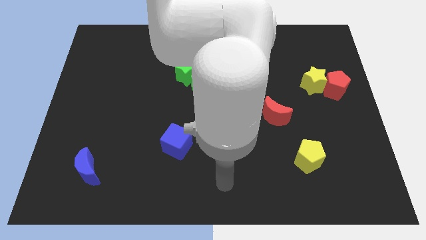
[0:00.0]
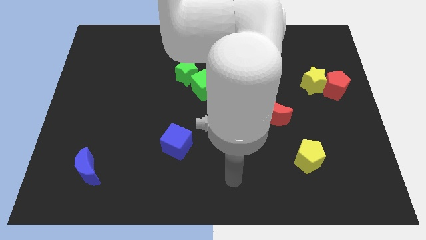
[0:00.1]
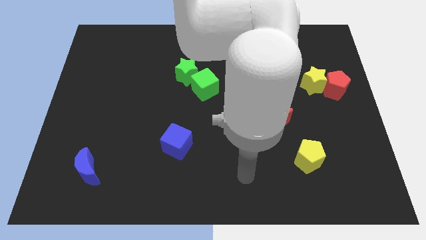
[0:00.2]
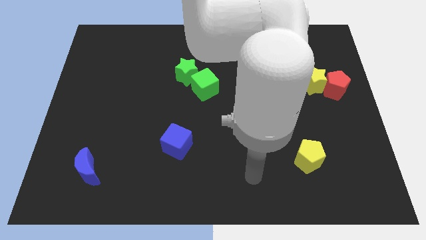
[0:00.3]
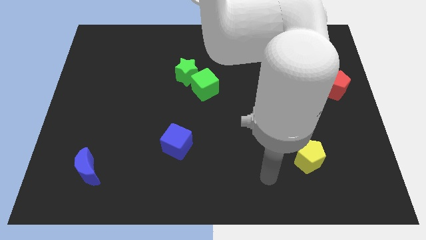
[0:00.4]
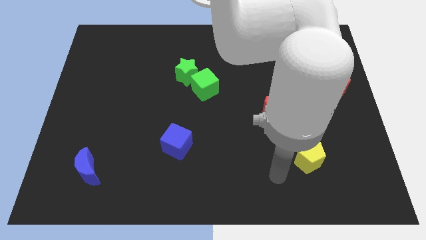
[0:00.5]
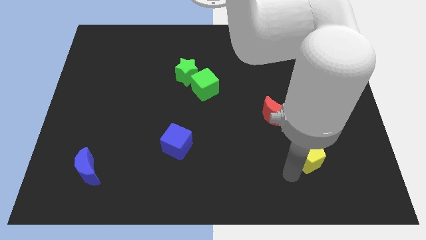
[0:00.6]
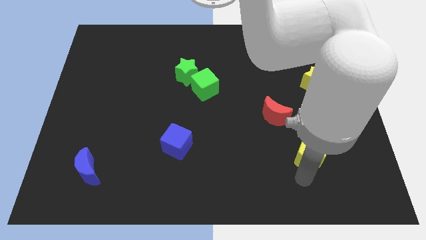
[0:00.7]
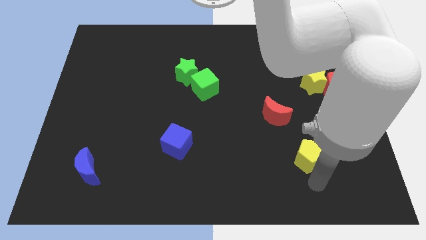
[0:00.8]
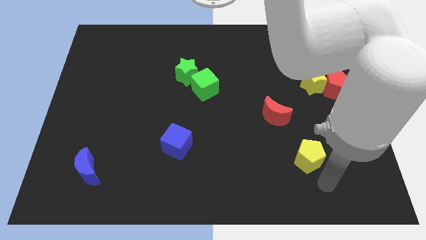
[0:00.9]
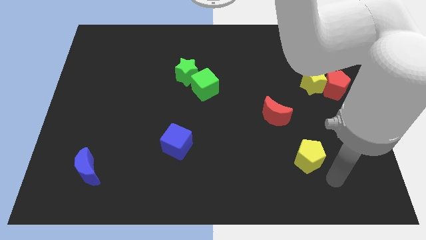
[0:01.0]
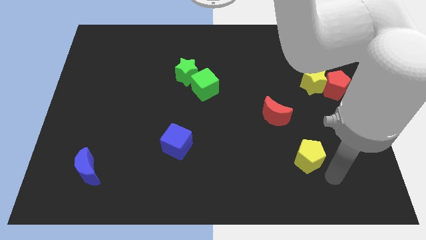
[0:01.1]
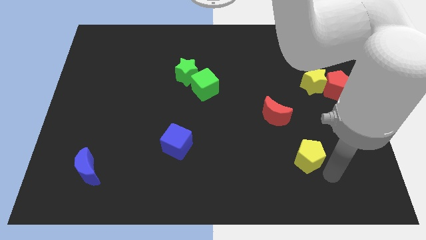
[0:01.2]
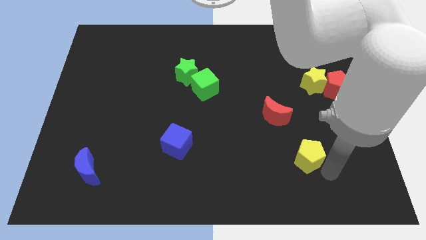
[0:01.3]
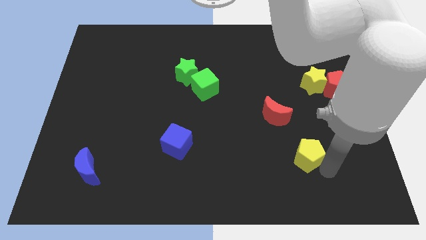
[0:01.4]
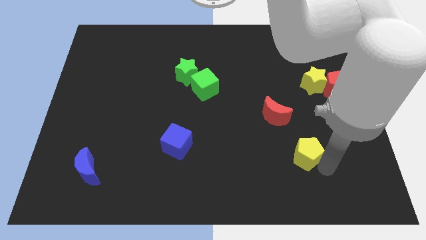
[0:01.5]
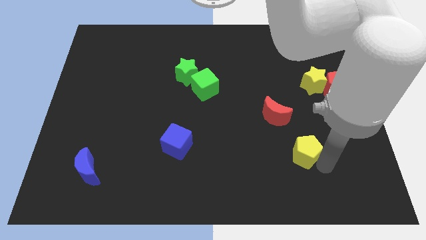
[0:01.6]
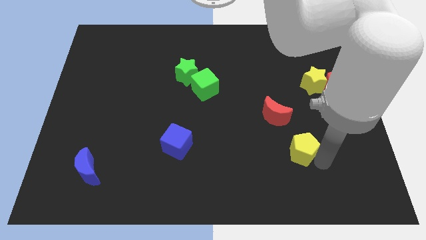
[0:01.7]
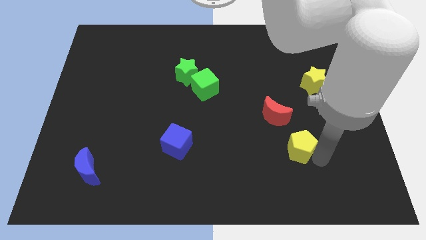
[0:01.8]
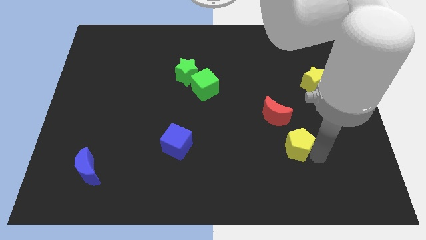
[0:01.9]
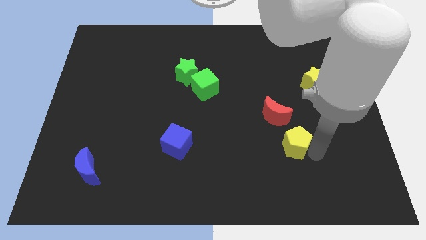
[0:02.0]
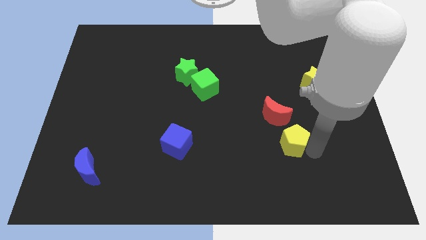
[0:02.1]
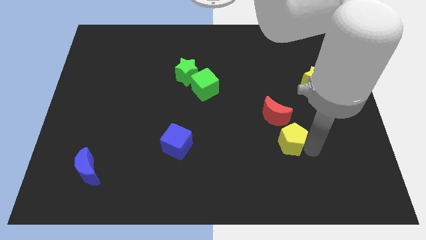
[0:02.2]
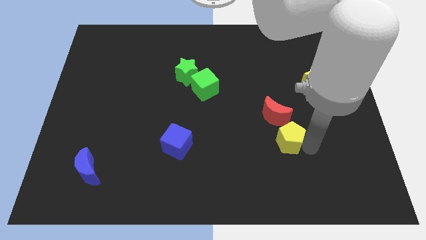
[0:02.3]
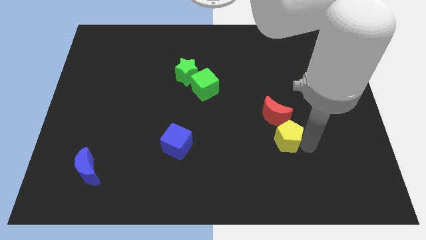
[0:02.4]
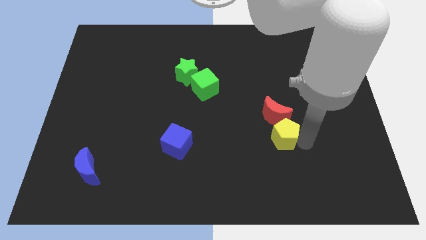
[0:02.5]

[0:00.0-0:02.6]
move the yellow pentagon upwards and to the left diagonally slightly

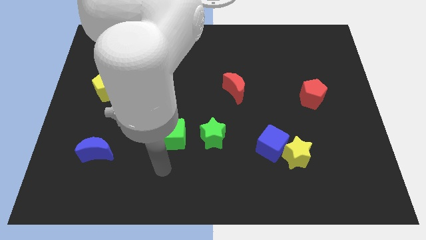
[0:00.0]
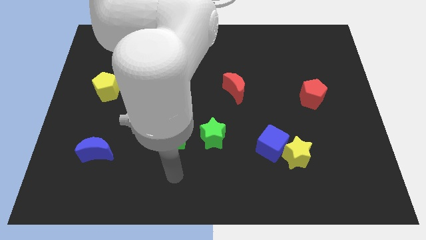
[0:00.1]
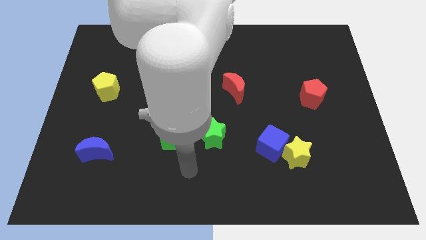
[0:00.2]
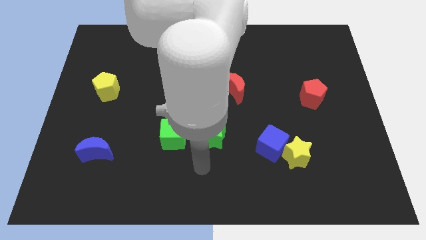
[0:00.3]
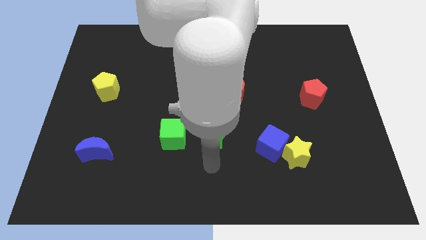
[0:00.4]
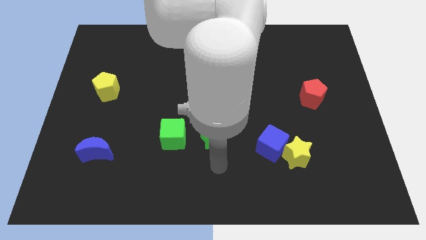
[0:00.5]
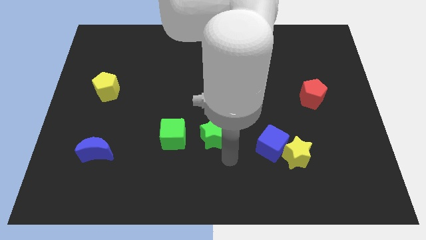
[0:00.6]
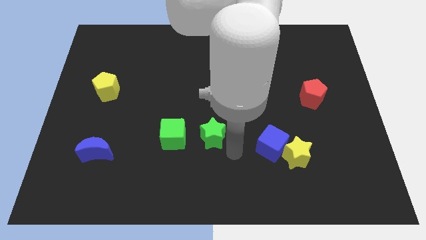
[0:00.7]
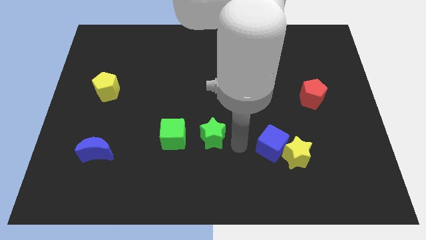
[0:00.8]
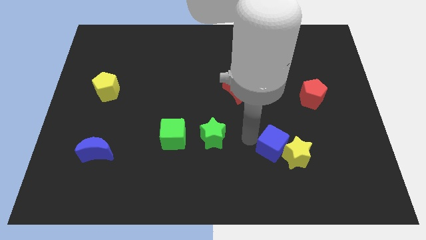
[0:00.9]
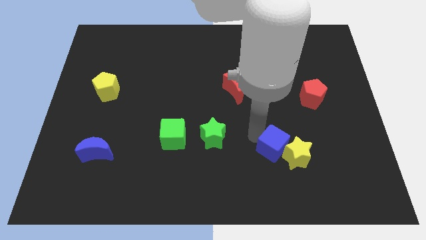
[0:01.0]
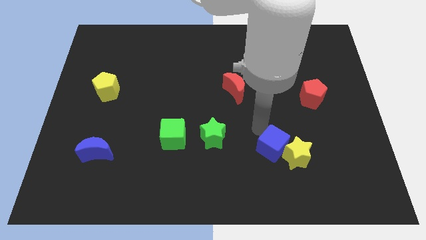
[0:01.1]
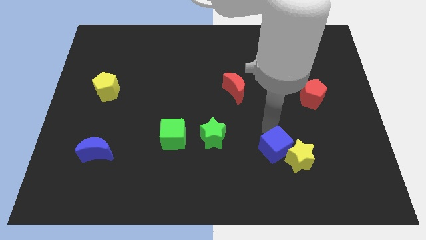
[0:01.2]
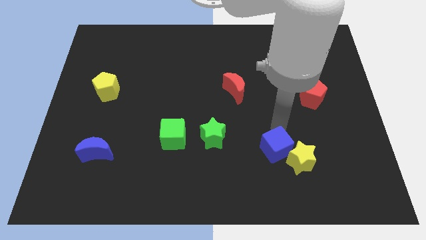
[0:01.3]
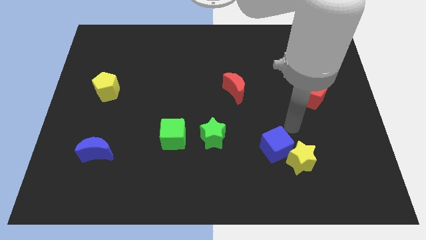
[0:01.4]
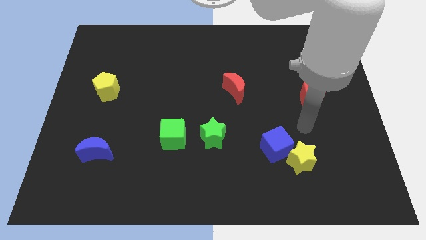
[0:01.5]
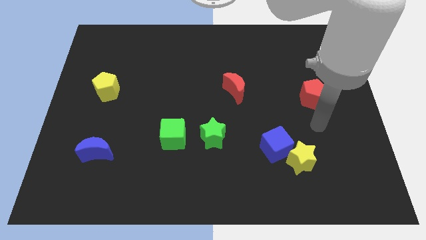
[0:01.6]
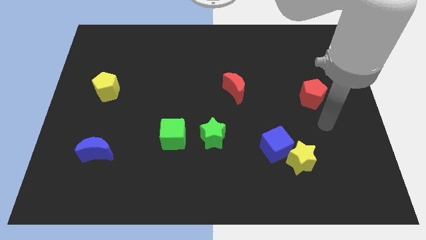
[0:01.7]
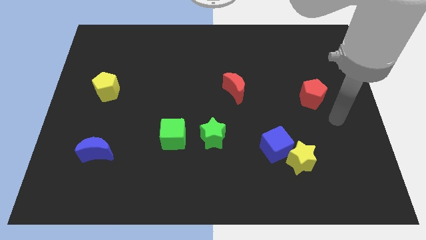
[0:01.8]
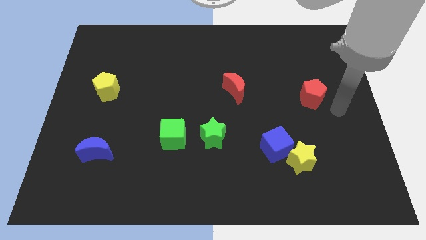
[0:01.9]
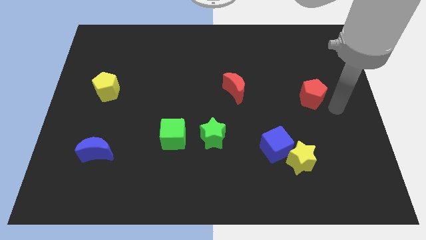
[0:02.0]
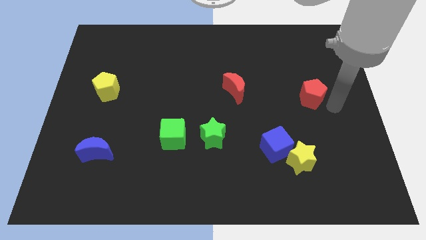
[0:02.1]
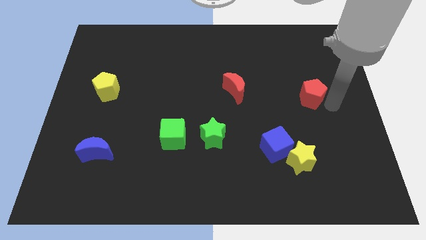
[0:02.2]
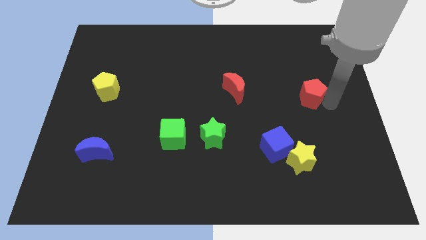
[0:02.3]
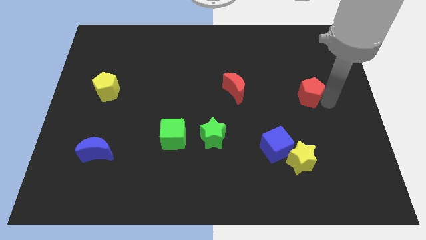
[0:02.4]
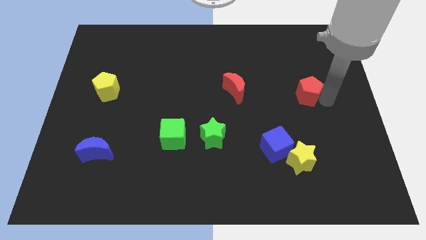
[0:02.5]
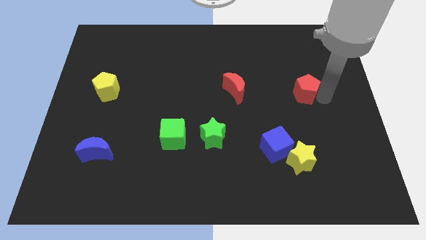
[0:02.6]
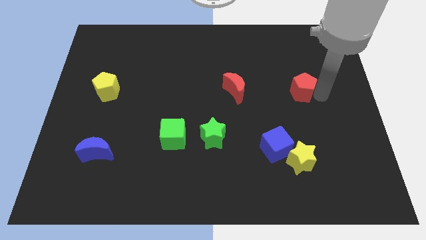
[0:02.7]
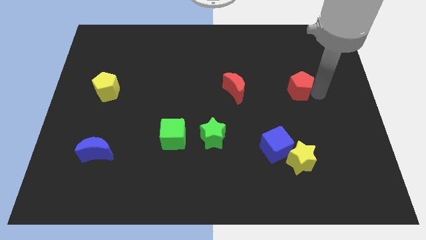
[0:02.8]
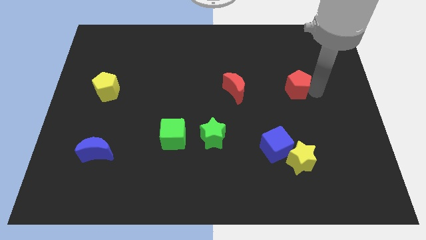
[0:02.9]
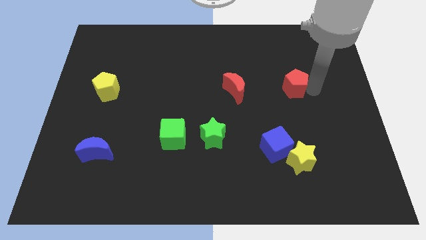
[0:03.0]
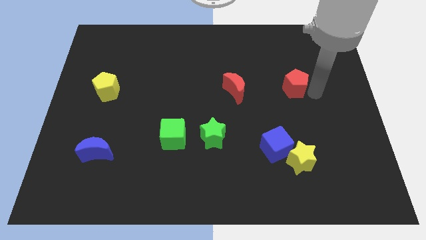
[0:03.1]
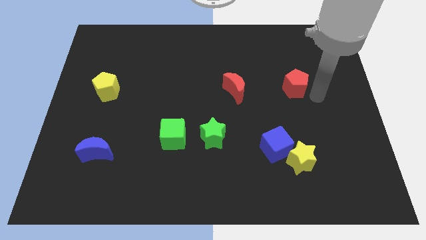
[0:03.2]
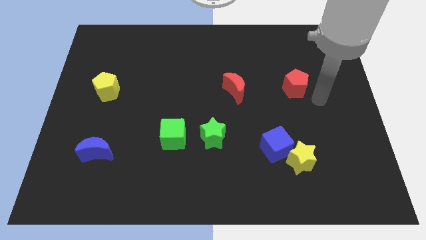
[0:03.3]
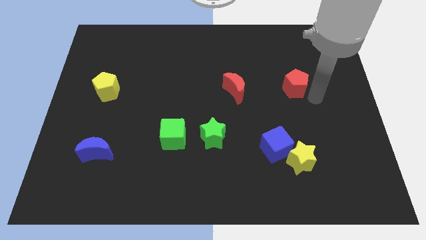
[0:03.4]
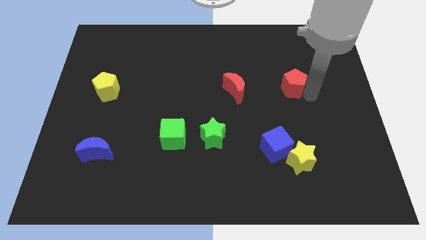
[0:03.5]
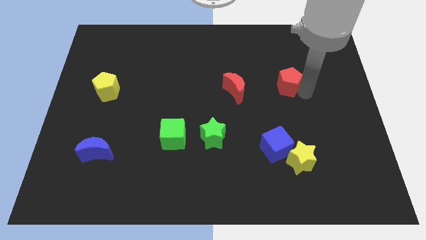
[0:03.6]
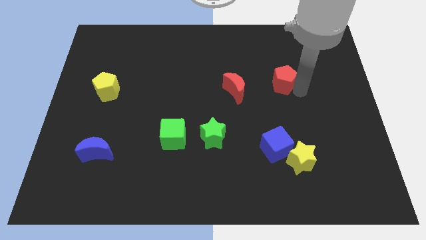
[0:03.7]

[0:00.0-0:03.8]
push the red pentagon a little up and left

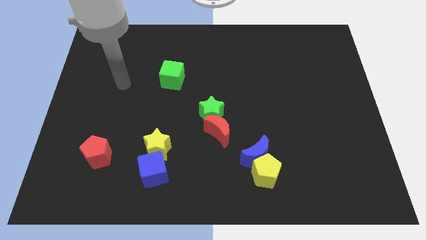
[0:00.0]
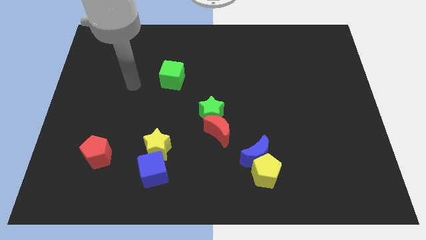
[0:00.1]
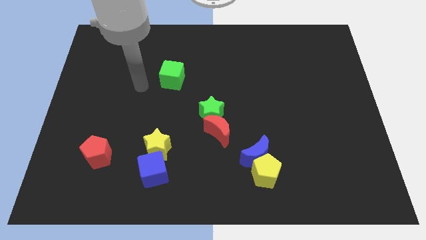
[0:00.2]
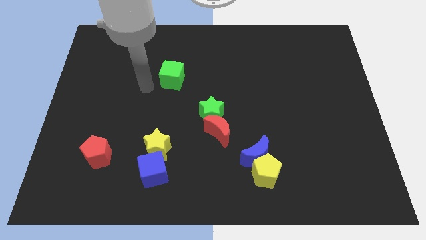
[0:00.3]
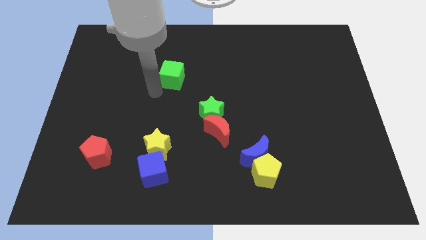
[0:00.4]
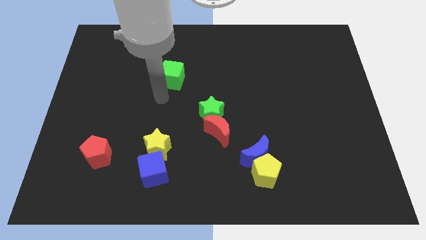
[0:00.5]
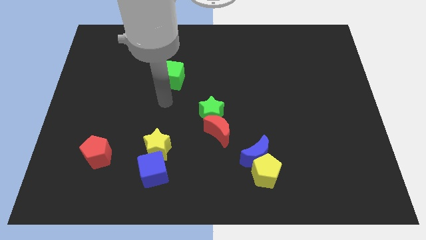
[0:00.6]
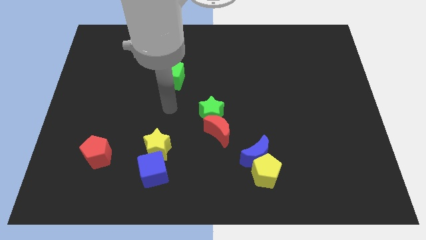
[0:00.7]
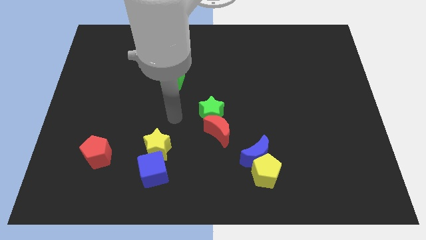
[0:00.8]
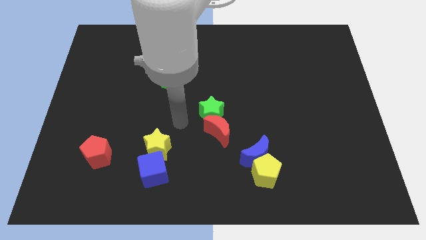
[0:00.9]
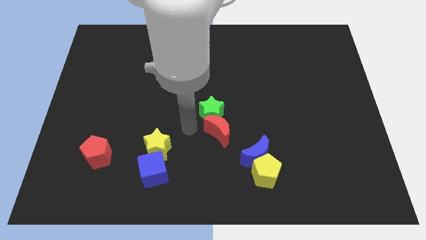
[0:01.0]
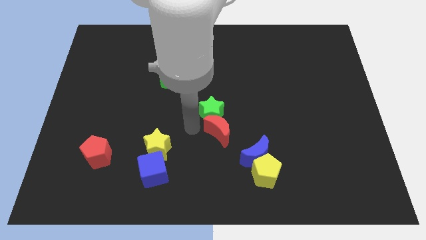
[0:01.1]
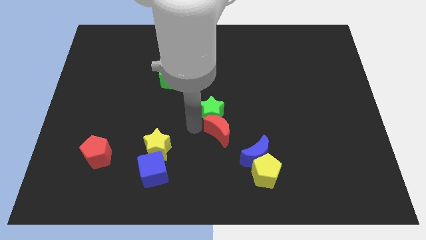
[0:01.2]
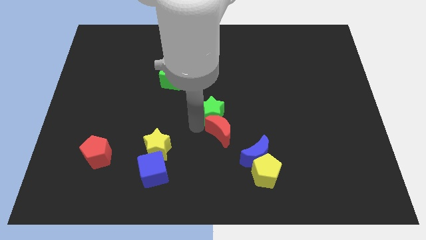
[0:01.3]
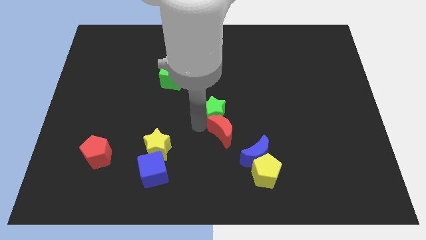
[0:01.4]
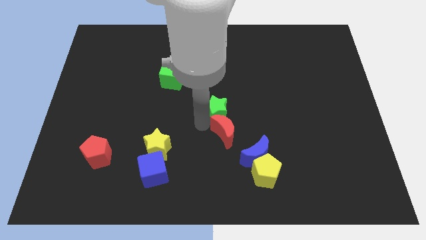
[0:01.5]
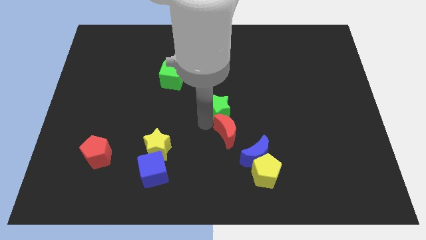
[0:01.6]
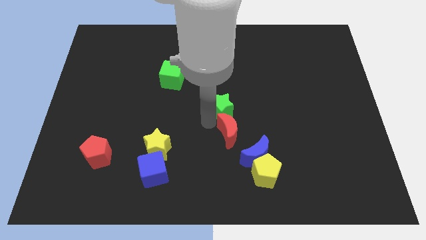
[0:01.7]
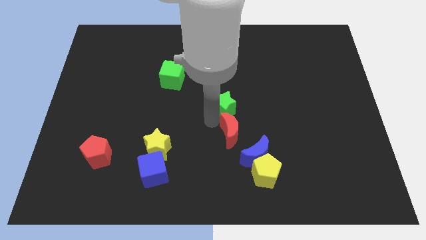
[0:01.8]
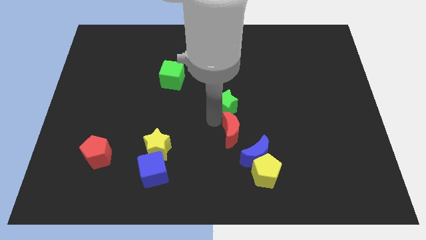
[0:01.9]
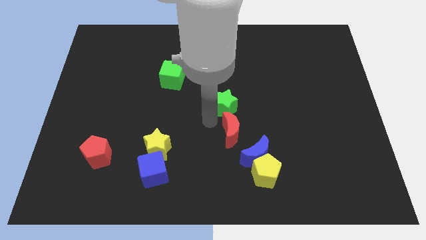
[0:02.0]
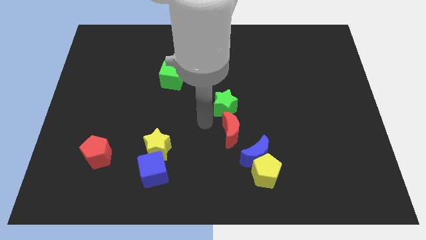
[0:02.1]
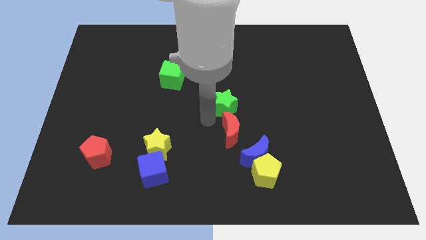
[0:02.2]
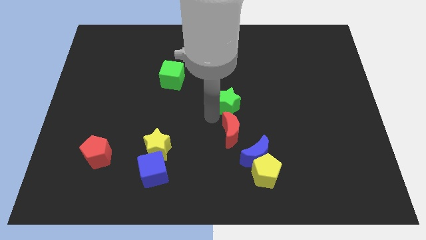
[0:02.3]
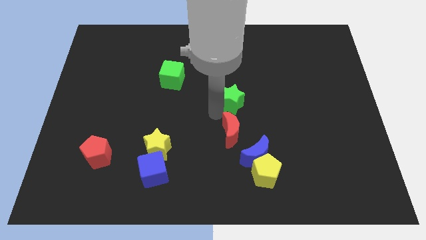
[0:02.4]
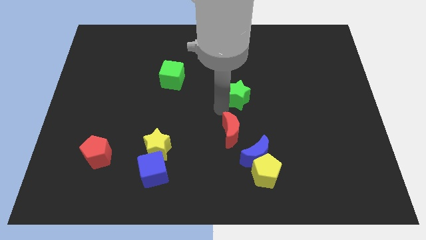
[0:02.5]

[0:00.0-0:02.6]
move the green star upwards and then to the right a bit
